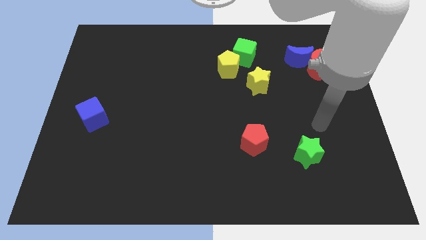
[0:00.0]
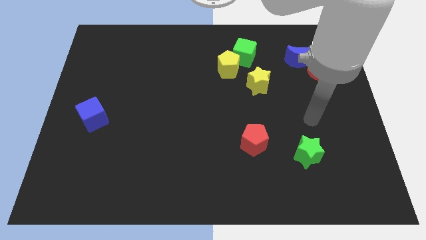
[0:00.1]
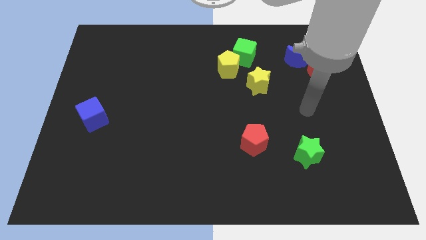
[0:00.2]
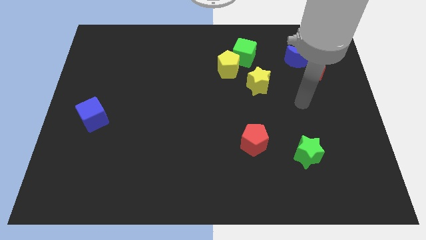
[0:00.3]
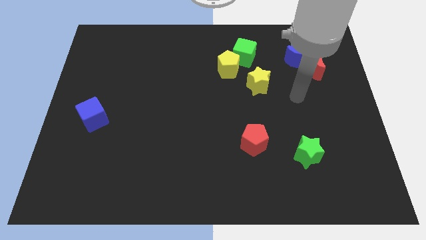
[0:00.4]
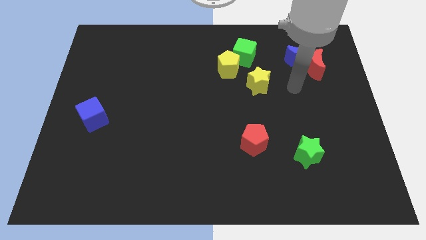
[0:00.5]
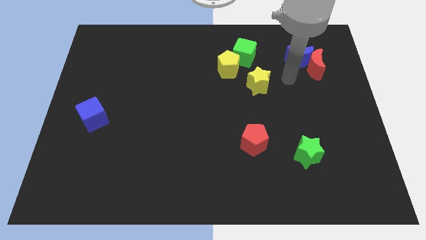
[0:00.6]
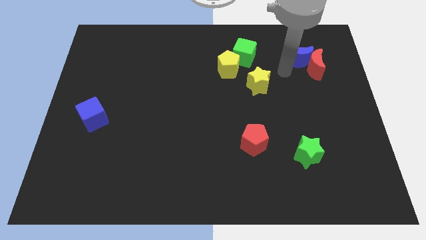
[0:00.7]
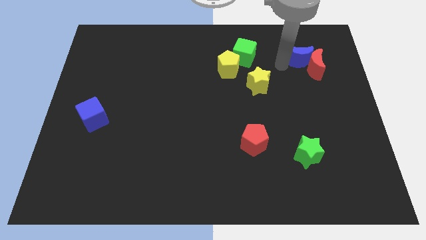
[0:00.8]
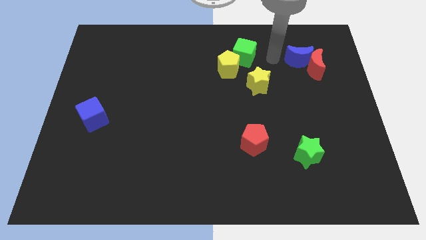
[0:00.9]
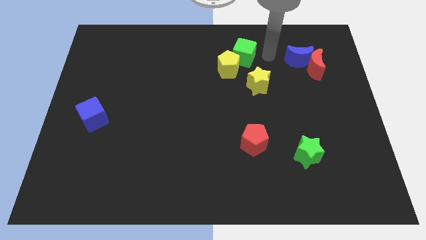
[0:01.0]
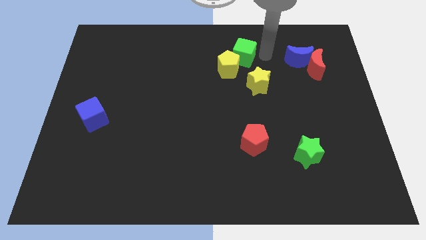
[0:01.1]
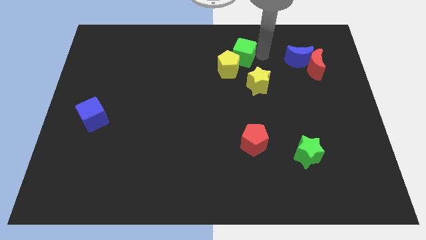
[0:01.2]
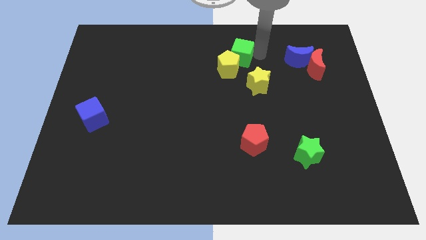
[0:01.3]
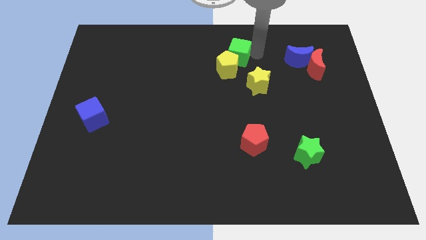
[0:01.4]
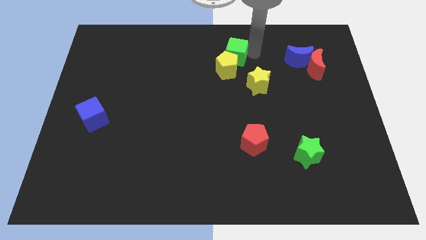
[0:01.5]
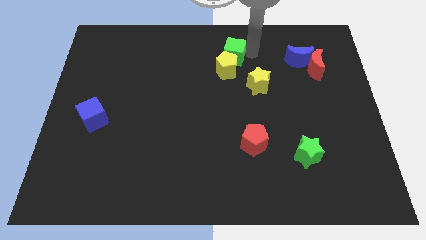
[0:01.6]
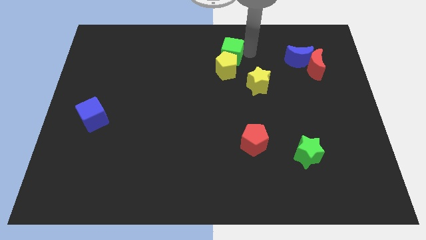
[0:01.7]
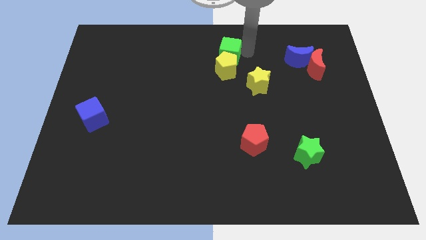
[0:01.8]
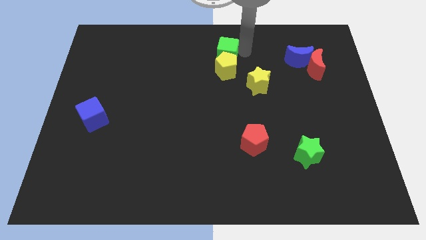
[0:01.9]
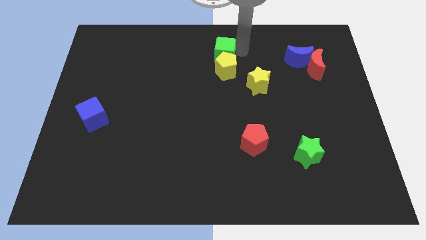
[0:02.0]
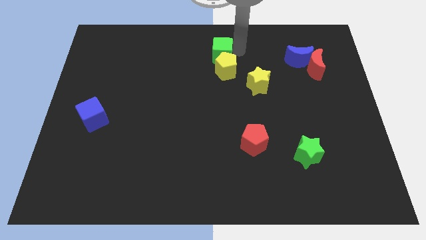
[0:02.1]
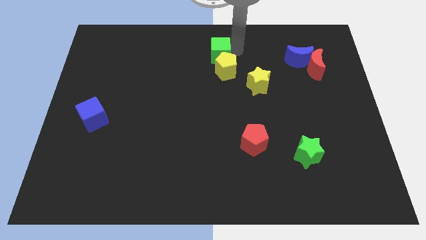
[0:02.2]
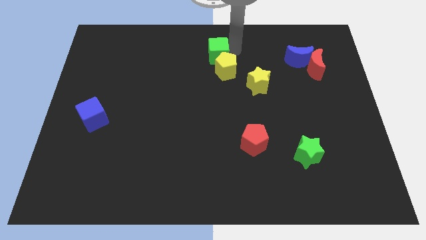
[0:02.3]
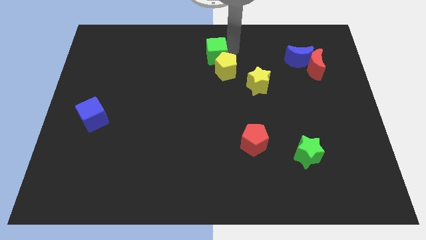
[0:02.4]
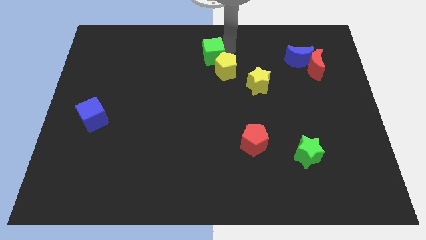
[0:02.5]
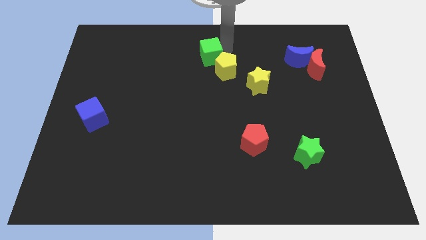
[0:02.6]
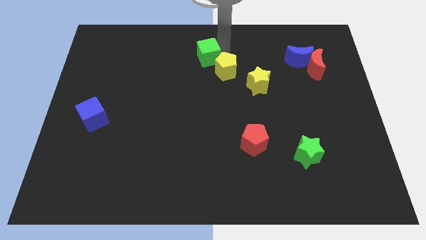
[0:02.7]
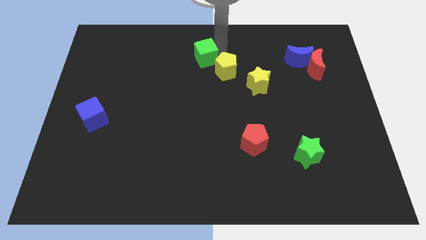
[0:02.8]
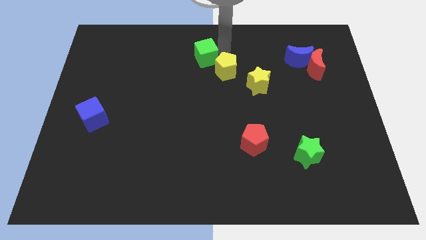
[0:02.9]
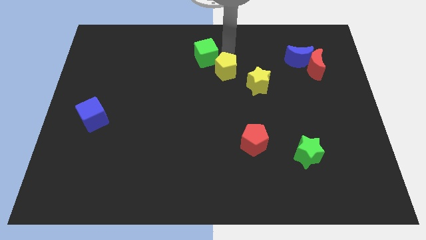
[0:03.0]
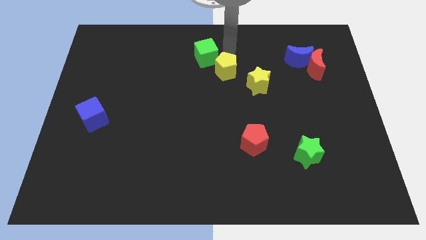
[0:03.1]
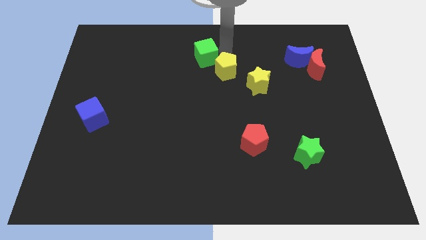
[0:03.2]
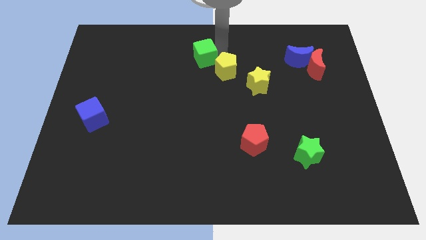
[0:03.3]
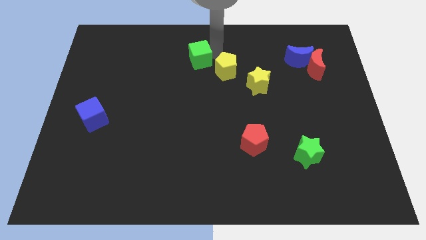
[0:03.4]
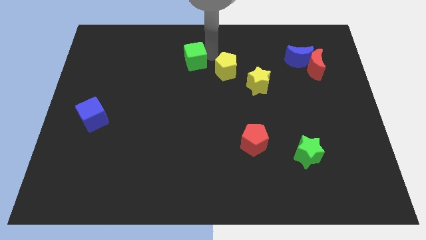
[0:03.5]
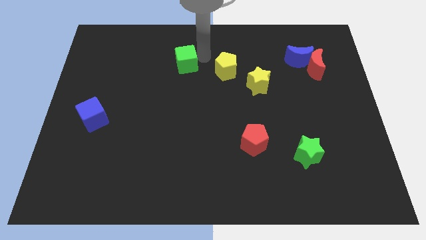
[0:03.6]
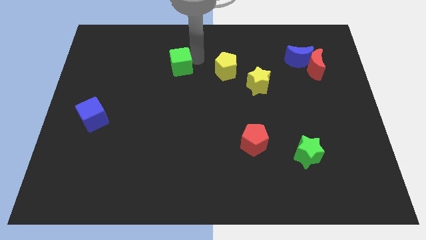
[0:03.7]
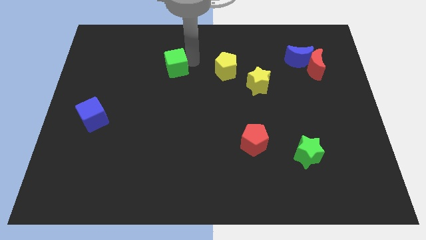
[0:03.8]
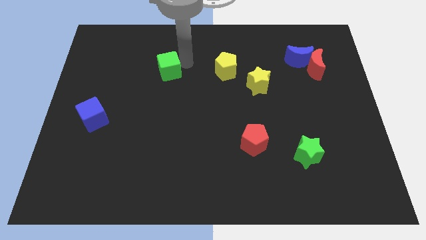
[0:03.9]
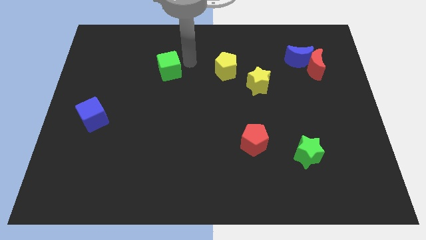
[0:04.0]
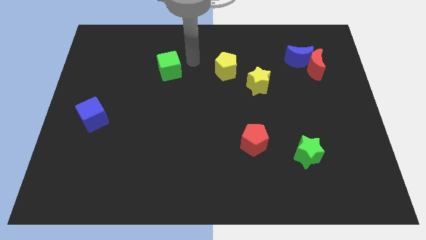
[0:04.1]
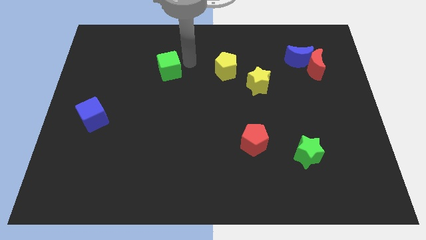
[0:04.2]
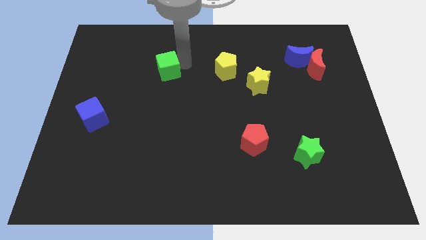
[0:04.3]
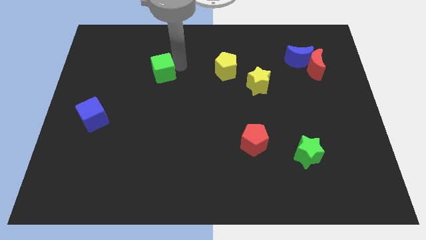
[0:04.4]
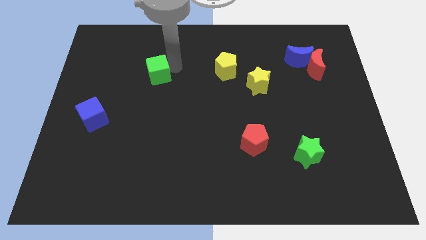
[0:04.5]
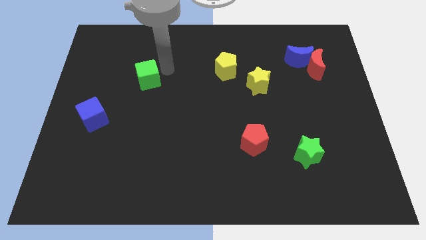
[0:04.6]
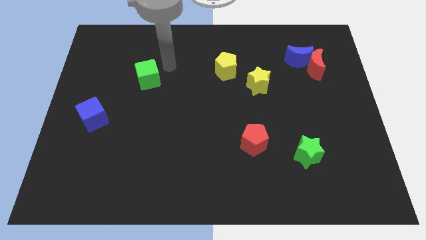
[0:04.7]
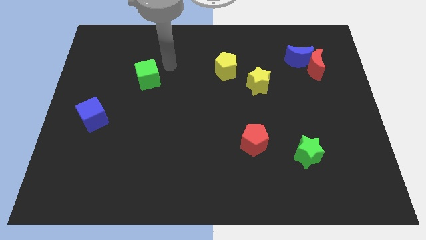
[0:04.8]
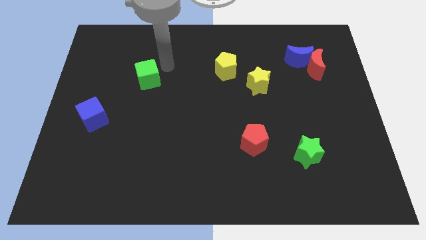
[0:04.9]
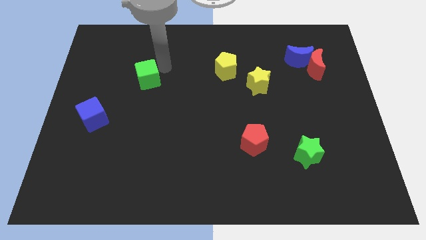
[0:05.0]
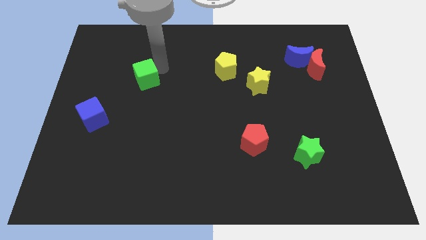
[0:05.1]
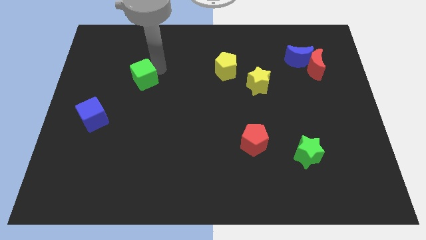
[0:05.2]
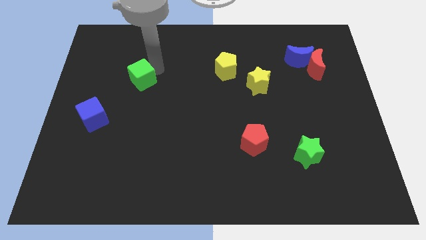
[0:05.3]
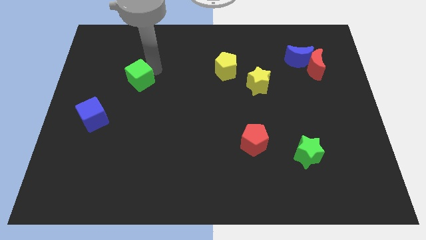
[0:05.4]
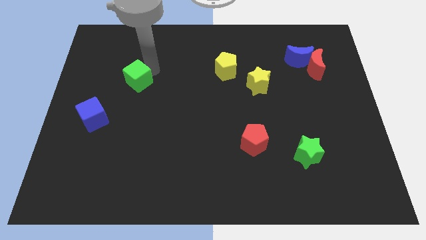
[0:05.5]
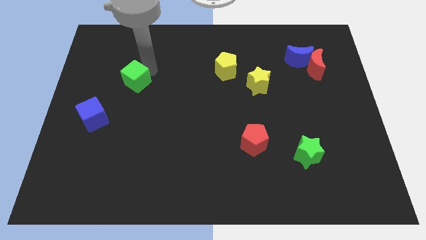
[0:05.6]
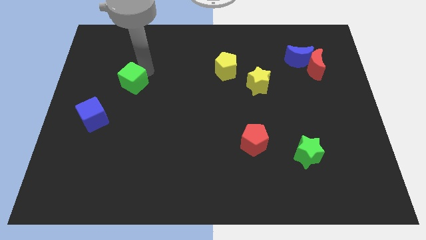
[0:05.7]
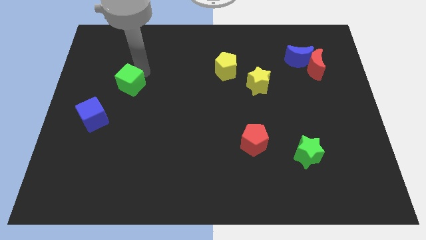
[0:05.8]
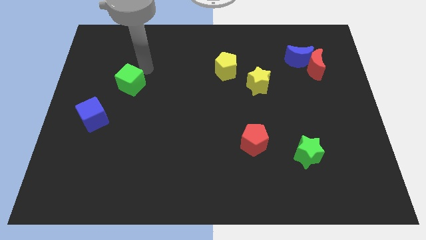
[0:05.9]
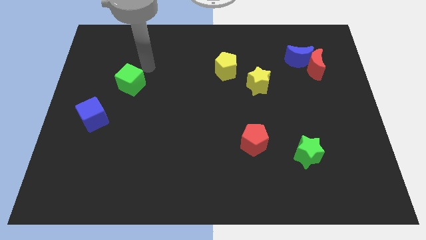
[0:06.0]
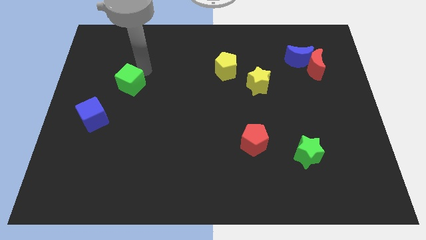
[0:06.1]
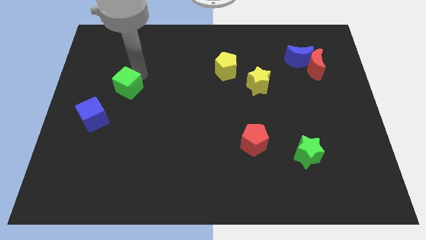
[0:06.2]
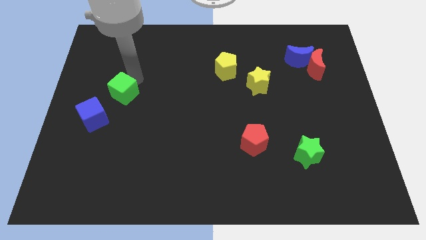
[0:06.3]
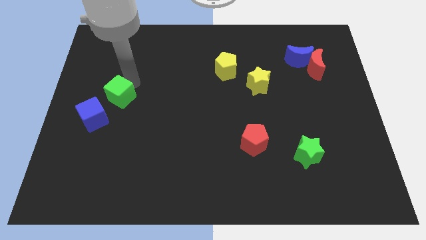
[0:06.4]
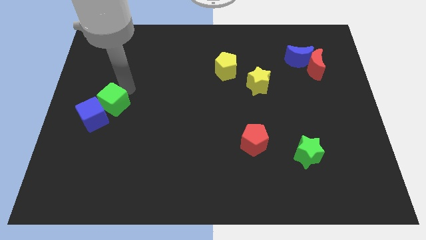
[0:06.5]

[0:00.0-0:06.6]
push the green cube towards the blue cube
